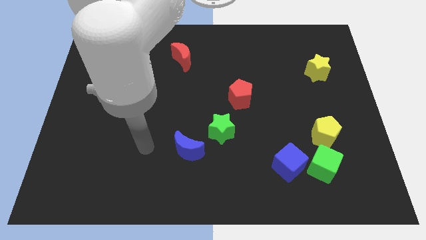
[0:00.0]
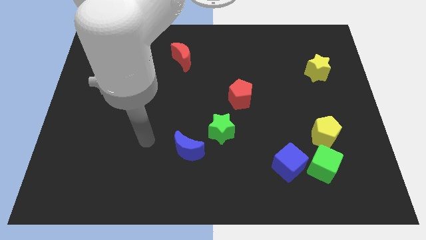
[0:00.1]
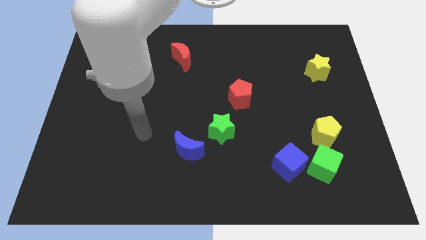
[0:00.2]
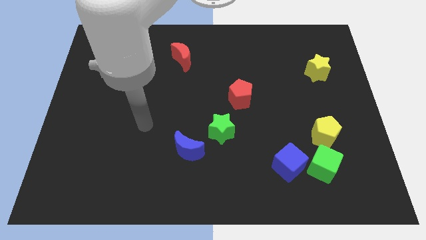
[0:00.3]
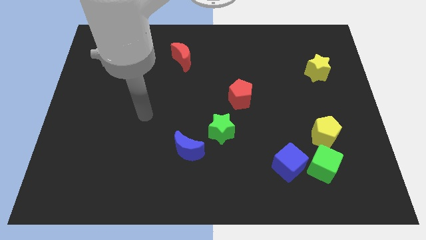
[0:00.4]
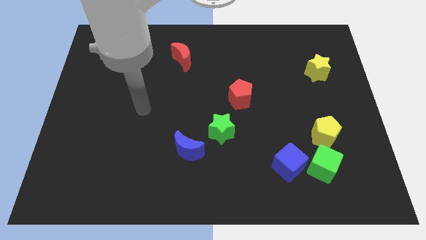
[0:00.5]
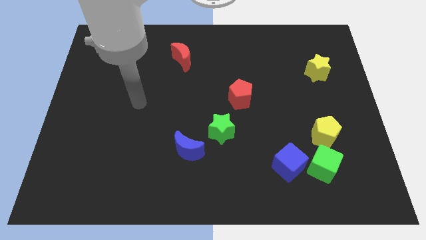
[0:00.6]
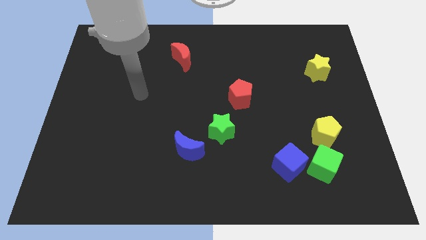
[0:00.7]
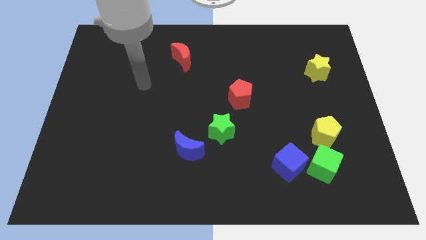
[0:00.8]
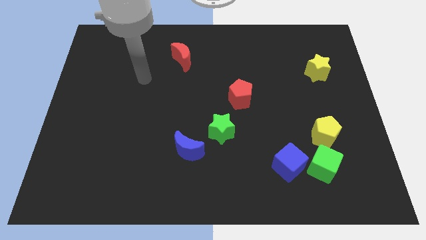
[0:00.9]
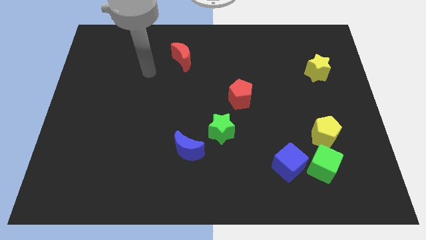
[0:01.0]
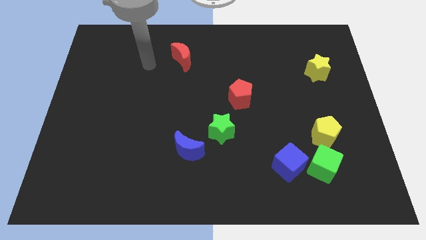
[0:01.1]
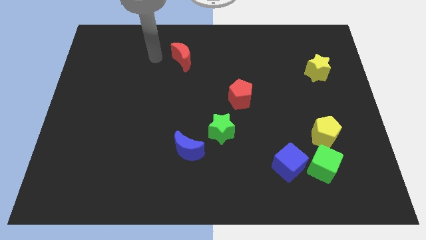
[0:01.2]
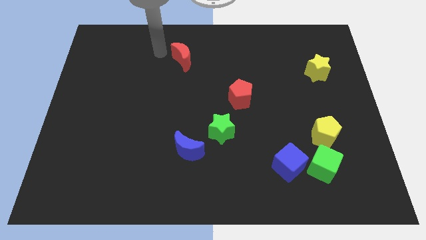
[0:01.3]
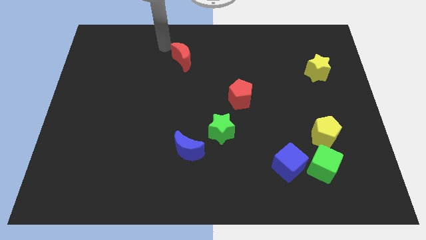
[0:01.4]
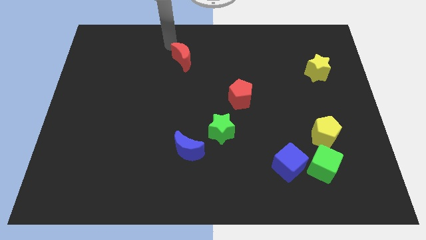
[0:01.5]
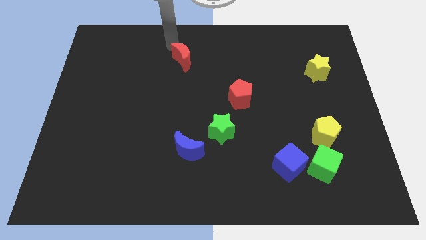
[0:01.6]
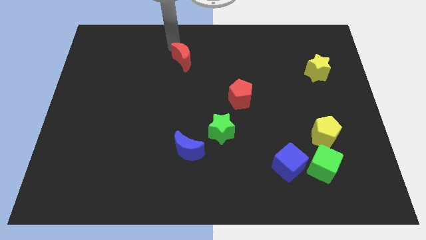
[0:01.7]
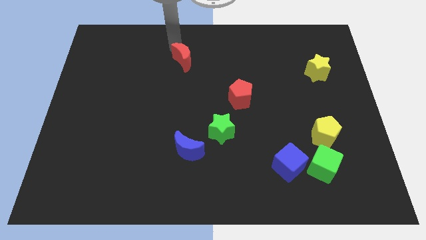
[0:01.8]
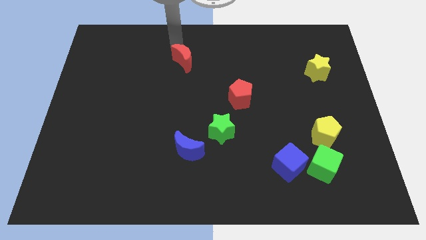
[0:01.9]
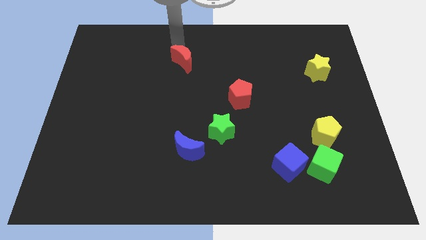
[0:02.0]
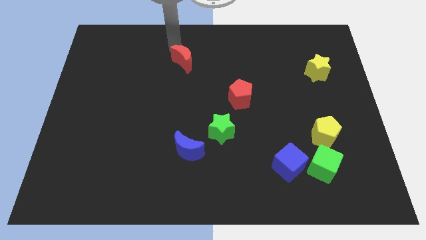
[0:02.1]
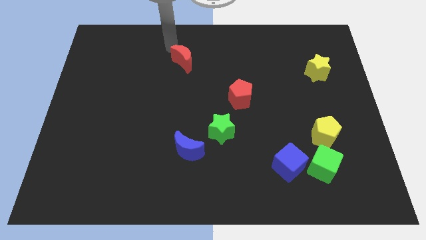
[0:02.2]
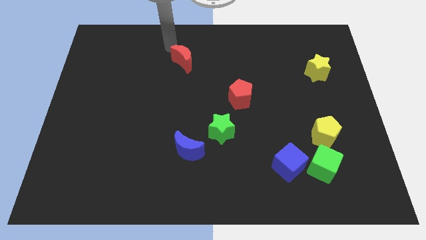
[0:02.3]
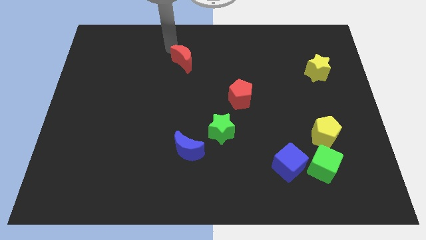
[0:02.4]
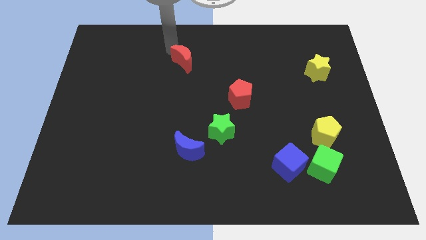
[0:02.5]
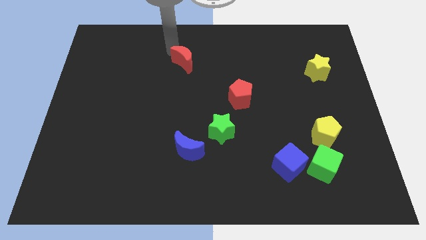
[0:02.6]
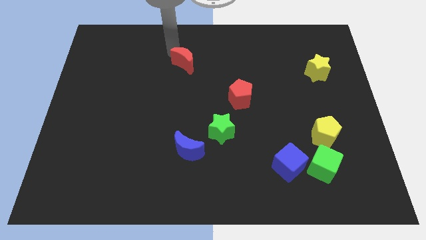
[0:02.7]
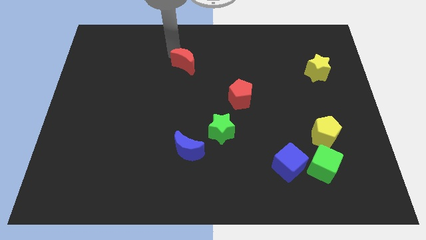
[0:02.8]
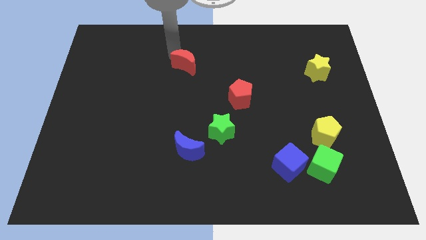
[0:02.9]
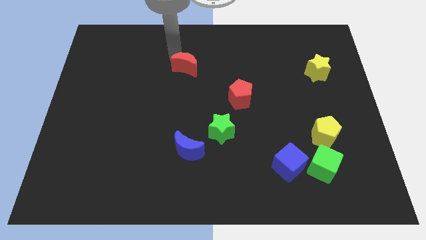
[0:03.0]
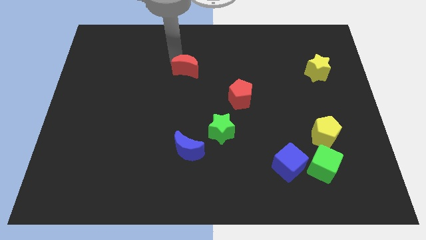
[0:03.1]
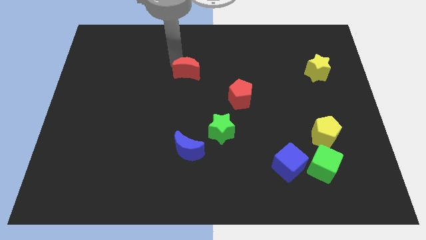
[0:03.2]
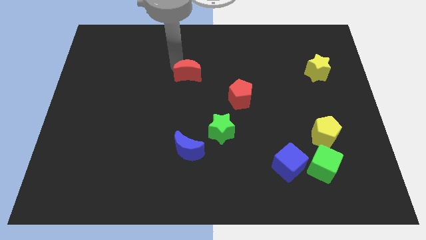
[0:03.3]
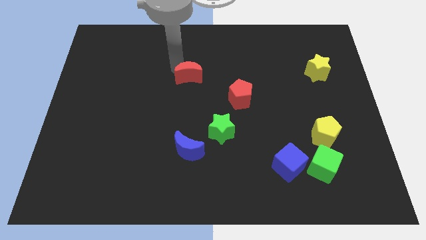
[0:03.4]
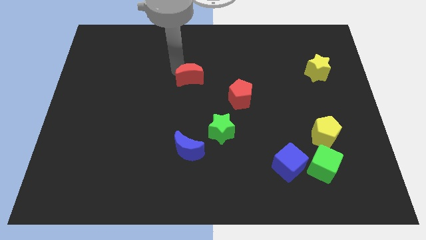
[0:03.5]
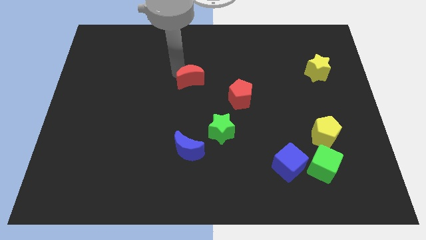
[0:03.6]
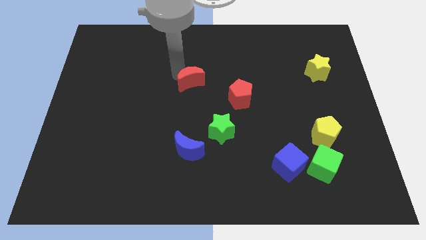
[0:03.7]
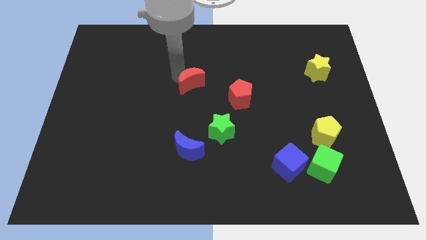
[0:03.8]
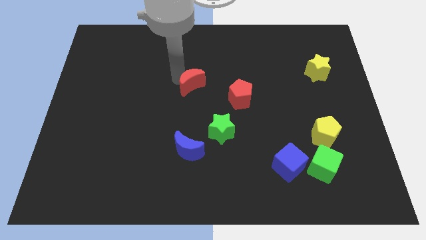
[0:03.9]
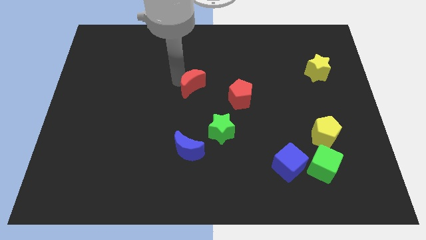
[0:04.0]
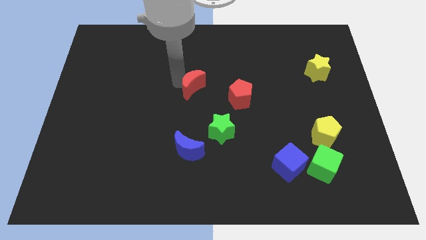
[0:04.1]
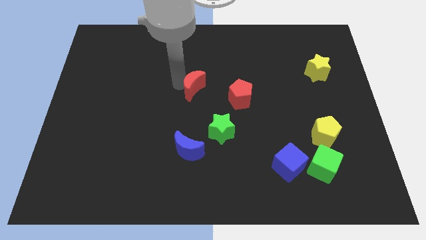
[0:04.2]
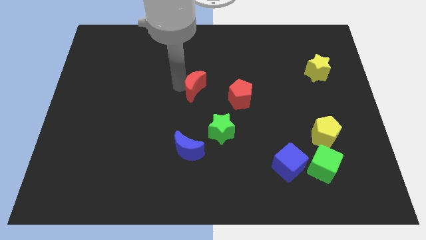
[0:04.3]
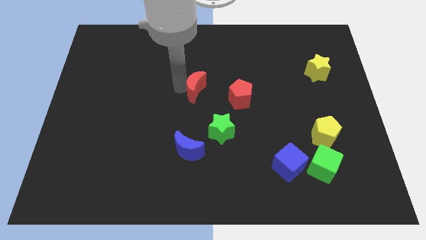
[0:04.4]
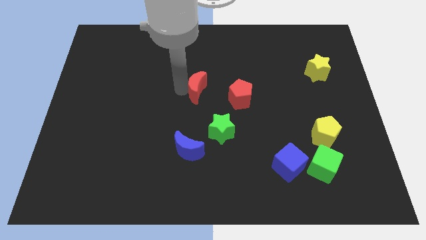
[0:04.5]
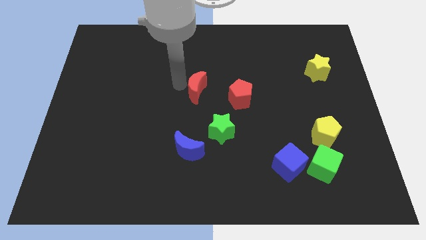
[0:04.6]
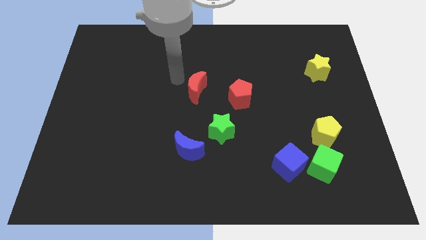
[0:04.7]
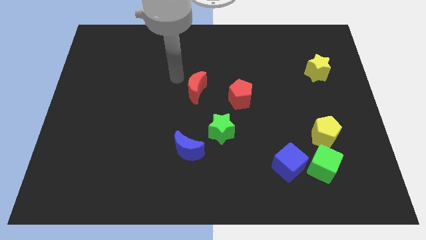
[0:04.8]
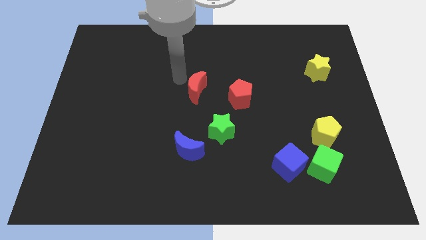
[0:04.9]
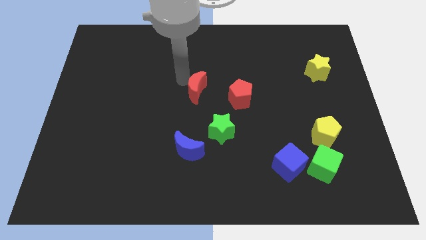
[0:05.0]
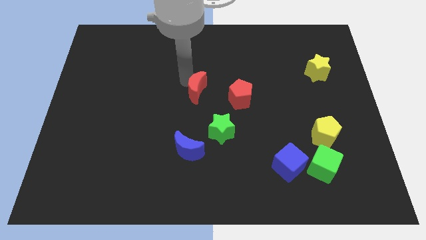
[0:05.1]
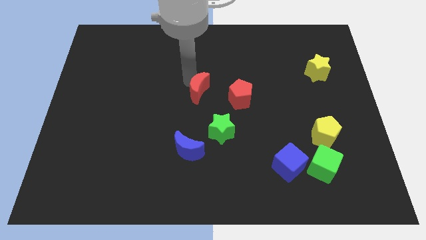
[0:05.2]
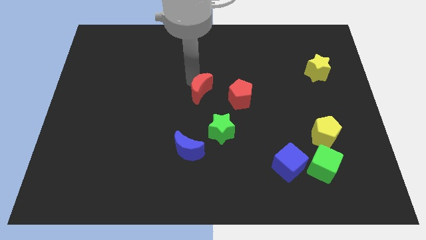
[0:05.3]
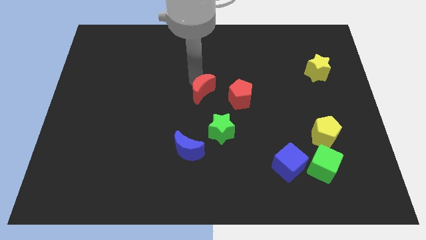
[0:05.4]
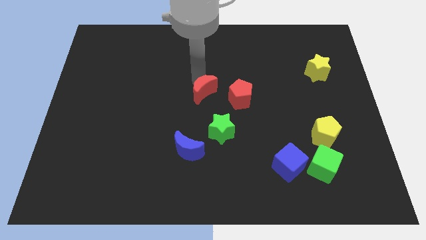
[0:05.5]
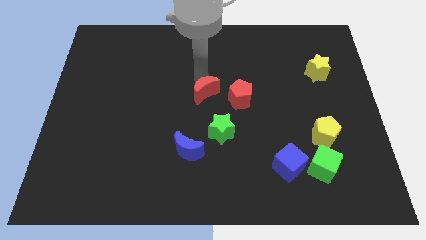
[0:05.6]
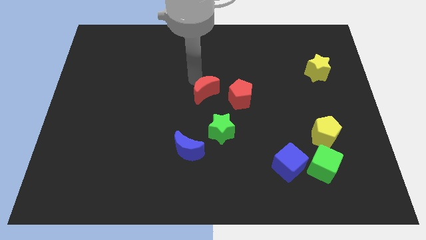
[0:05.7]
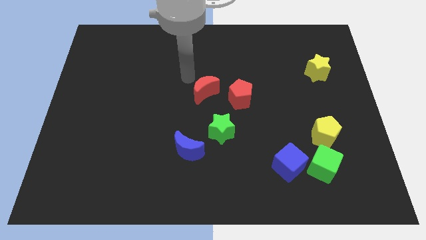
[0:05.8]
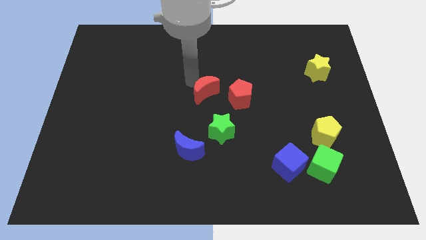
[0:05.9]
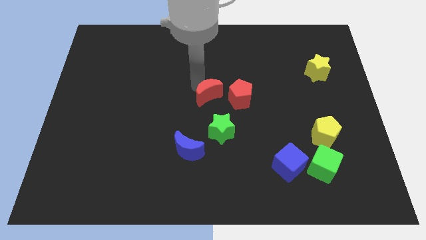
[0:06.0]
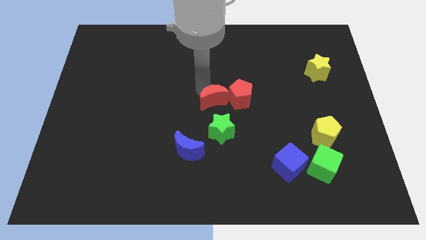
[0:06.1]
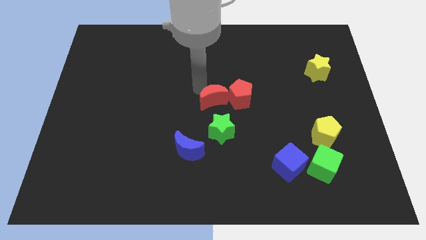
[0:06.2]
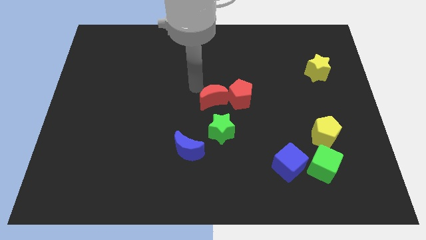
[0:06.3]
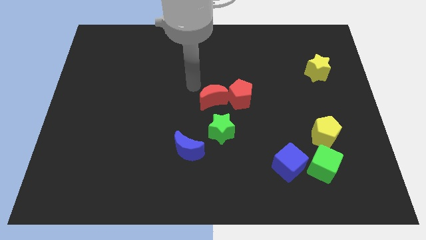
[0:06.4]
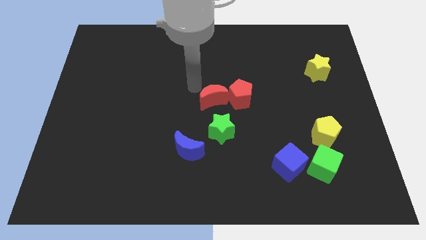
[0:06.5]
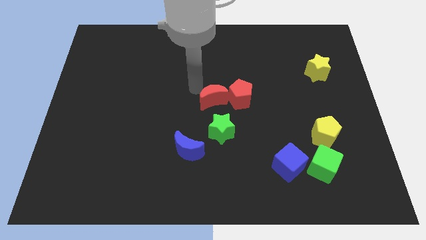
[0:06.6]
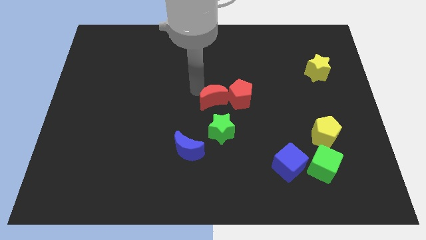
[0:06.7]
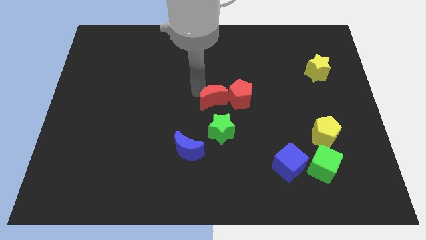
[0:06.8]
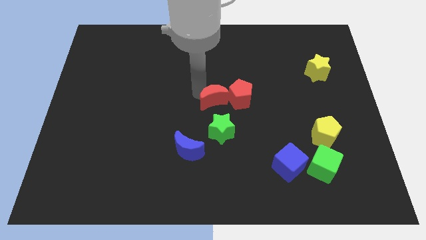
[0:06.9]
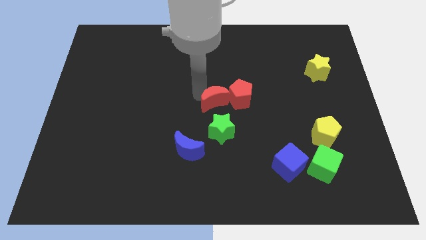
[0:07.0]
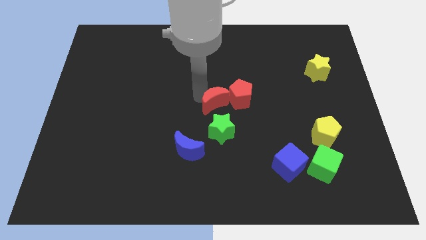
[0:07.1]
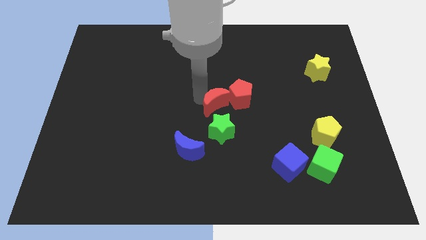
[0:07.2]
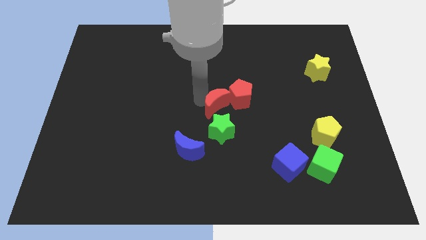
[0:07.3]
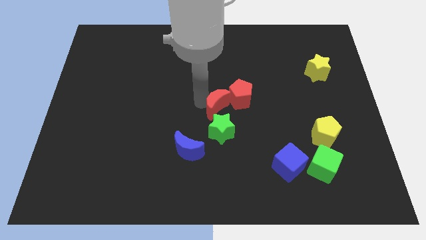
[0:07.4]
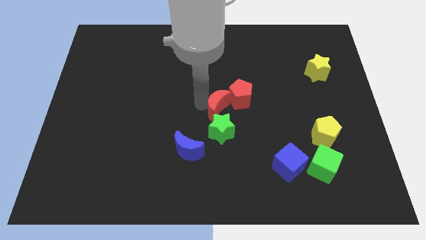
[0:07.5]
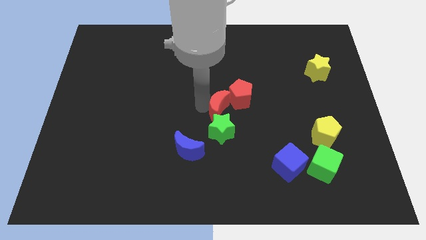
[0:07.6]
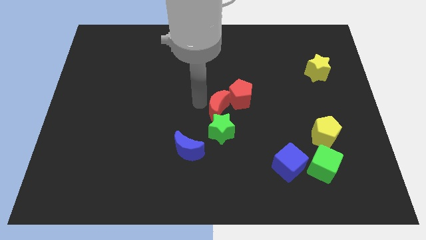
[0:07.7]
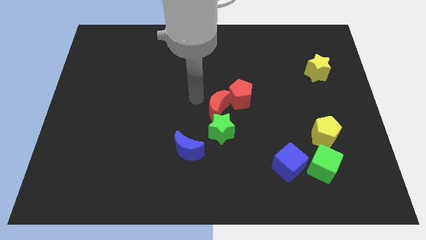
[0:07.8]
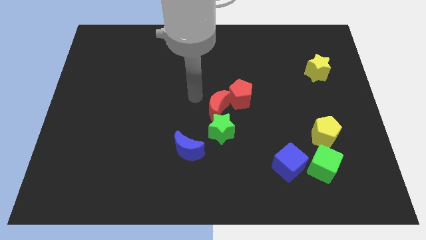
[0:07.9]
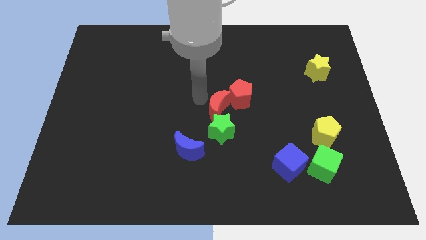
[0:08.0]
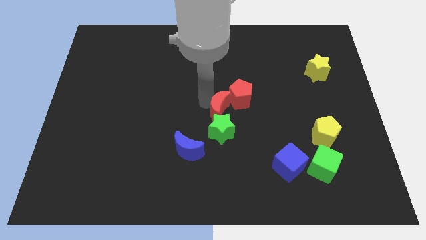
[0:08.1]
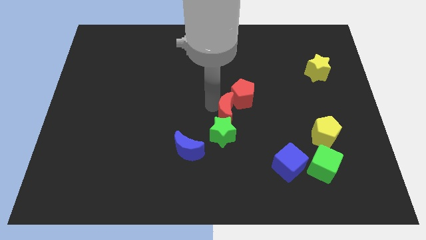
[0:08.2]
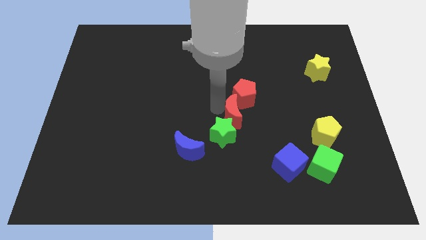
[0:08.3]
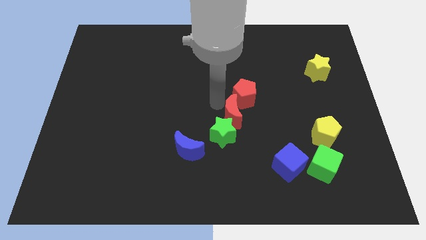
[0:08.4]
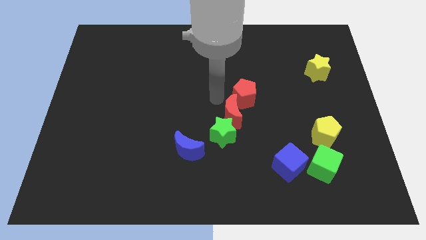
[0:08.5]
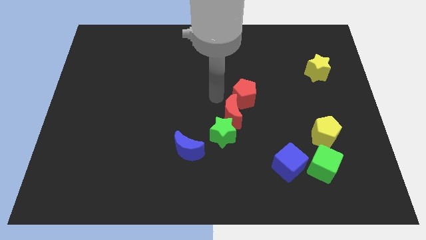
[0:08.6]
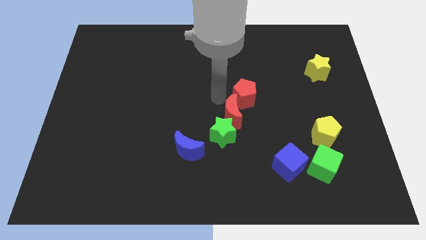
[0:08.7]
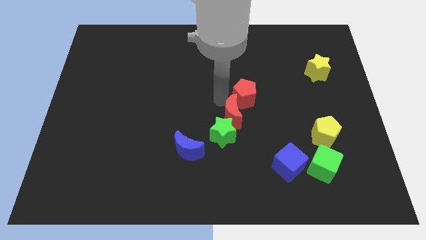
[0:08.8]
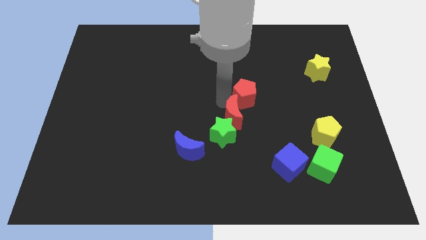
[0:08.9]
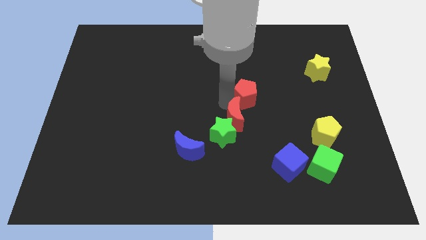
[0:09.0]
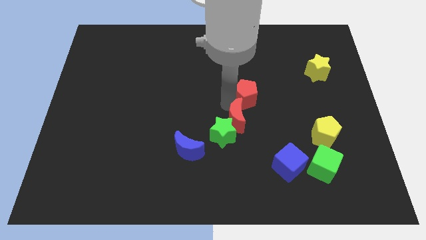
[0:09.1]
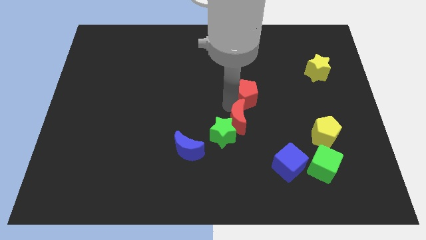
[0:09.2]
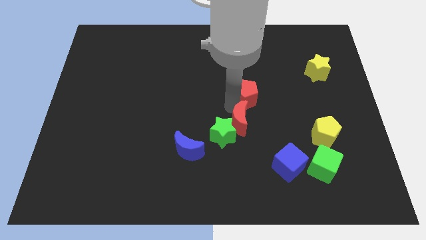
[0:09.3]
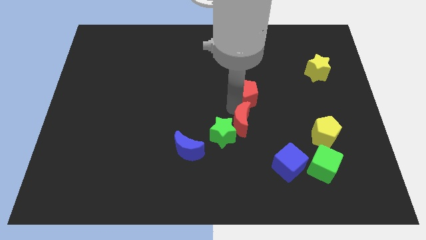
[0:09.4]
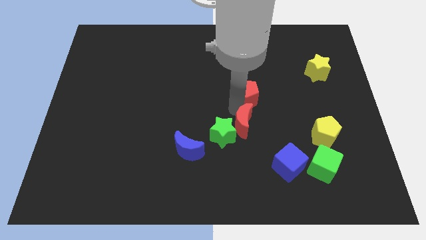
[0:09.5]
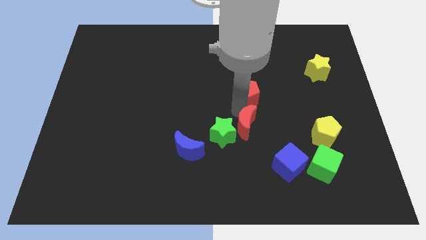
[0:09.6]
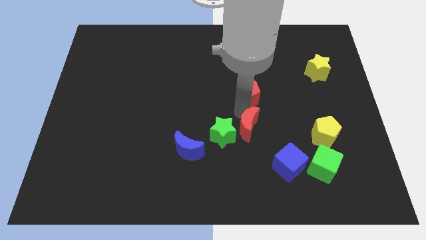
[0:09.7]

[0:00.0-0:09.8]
move the red moon to the top left side of the blue cube
